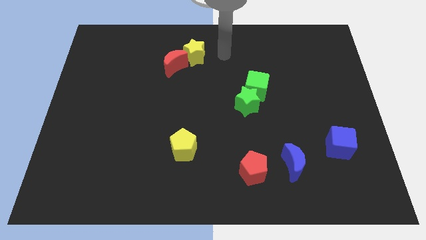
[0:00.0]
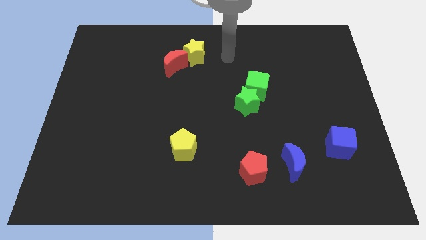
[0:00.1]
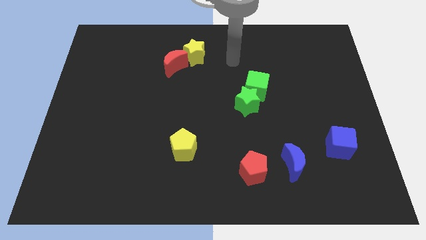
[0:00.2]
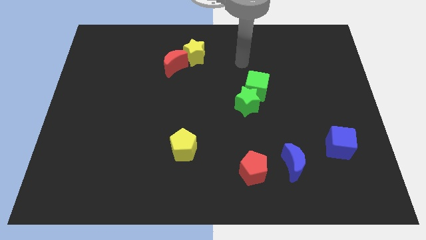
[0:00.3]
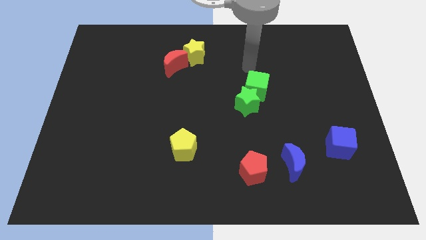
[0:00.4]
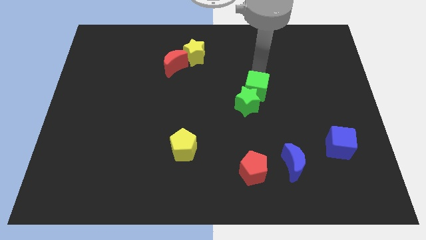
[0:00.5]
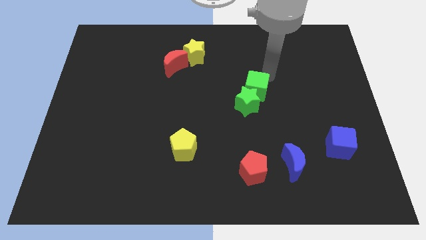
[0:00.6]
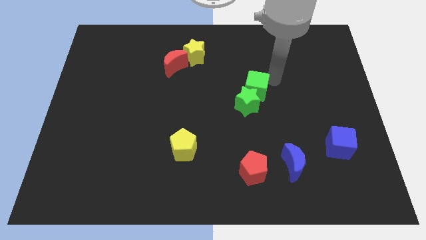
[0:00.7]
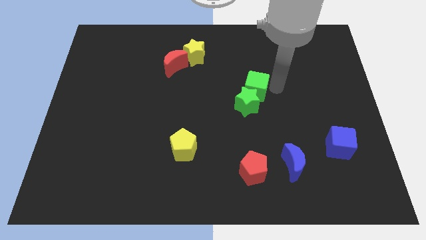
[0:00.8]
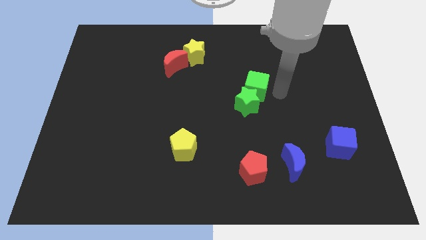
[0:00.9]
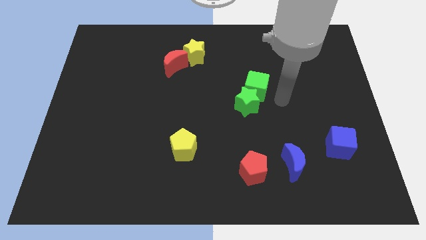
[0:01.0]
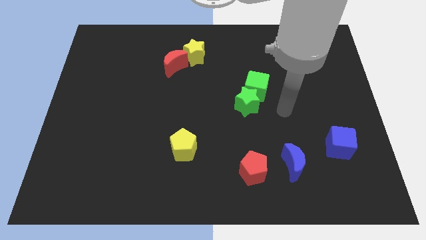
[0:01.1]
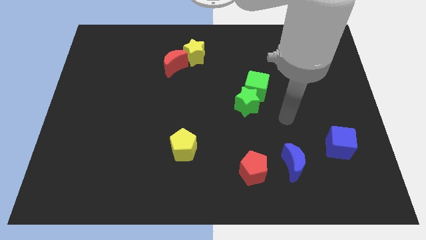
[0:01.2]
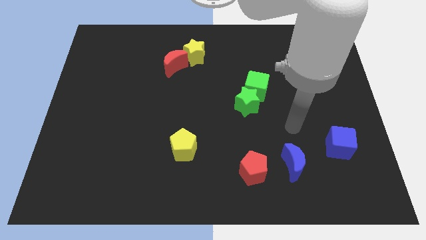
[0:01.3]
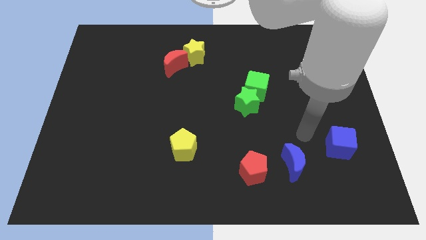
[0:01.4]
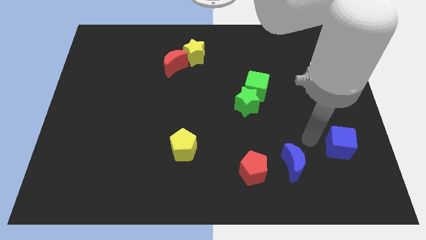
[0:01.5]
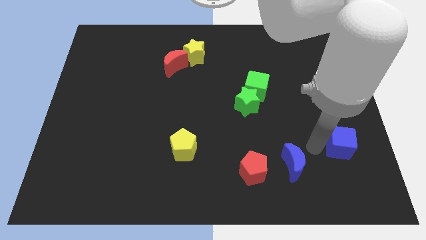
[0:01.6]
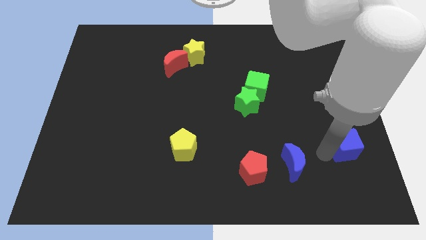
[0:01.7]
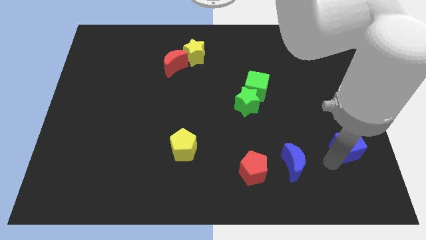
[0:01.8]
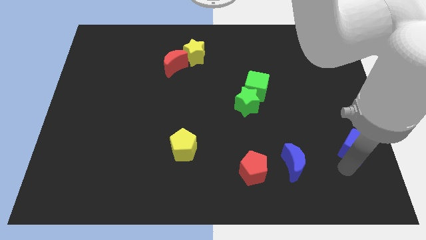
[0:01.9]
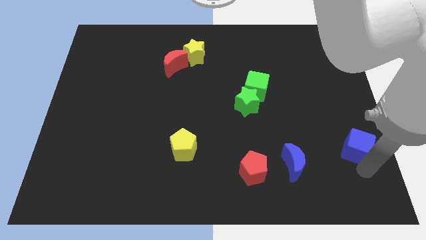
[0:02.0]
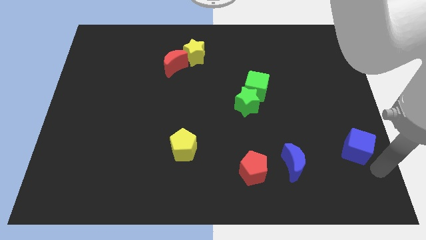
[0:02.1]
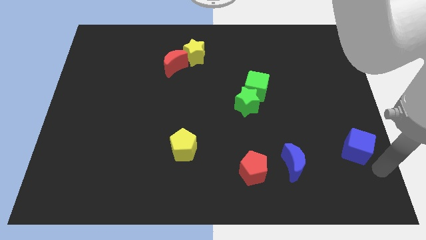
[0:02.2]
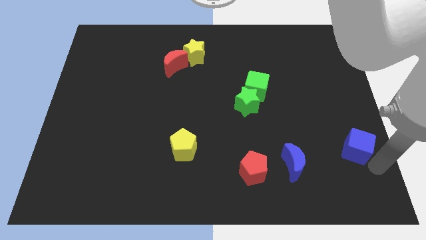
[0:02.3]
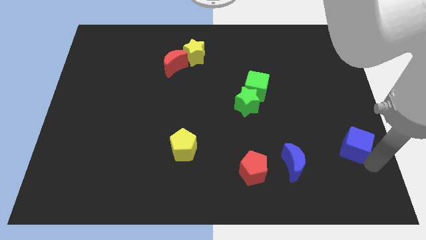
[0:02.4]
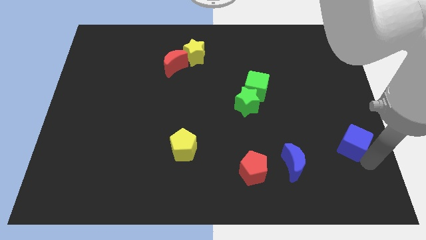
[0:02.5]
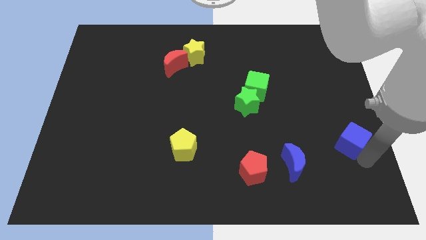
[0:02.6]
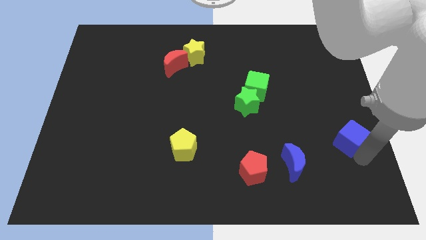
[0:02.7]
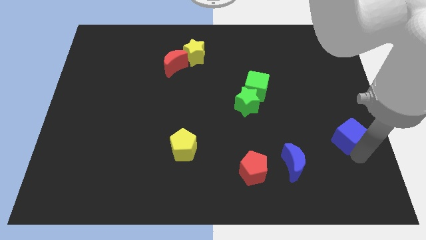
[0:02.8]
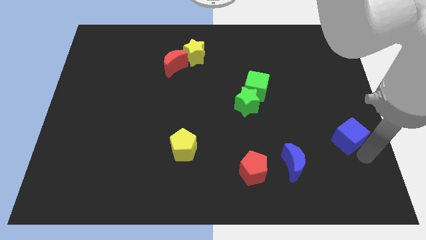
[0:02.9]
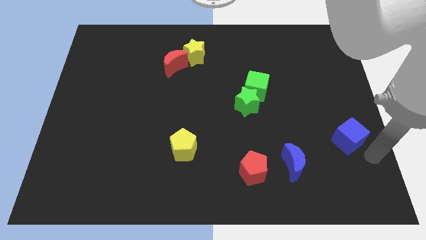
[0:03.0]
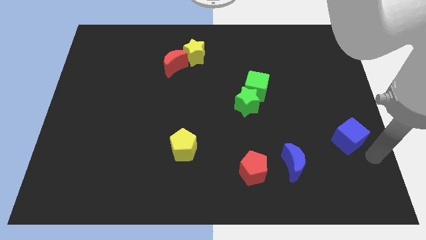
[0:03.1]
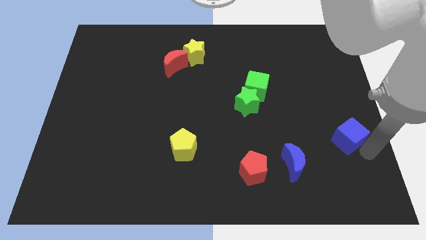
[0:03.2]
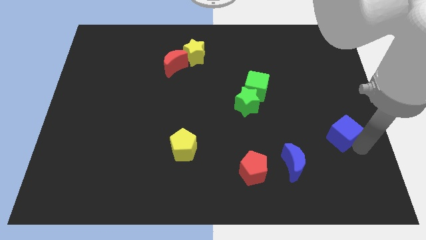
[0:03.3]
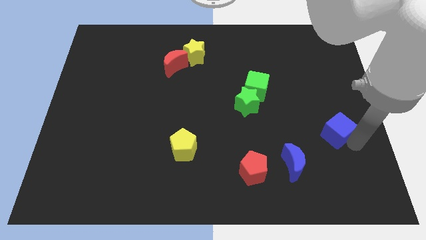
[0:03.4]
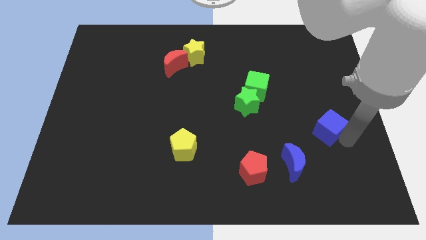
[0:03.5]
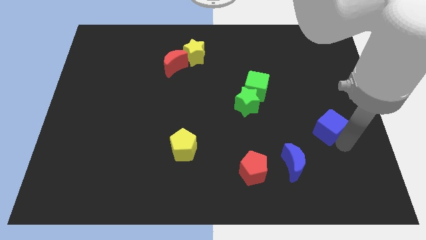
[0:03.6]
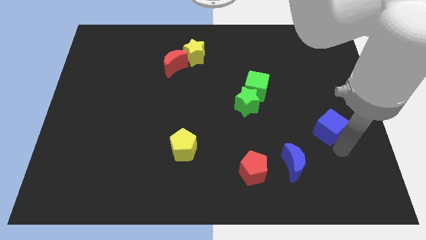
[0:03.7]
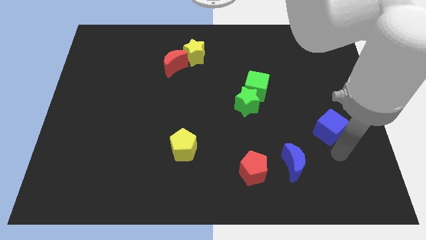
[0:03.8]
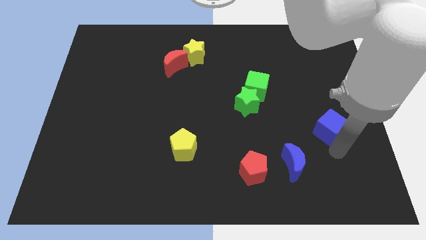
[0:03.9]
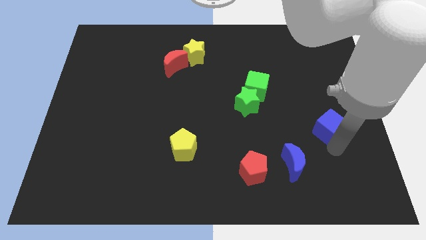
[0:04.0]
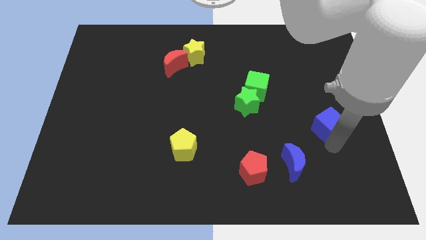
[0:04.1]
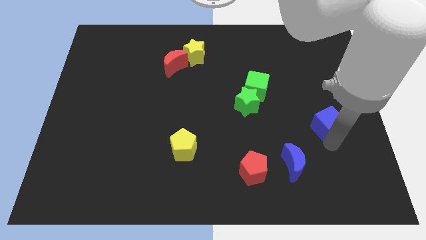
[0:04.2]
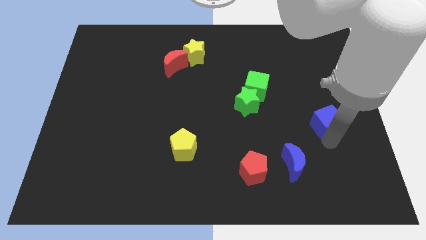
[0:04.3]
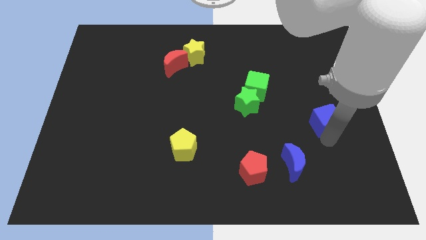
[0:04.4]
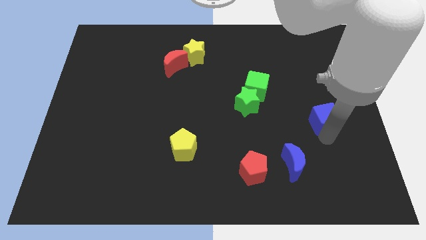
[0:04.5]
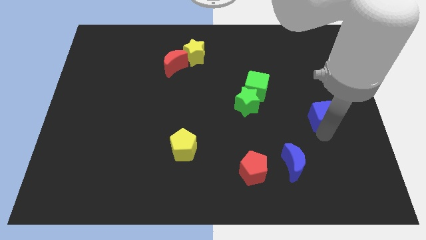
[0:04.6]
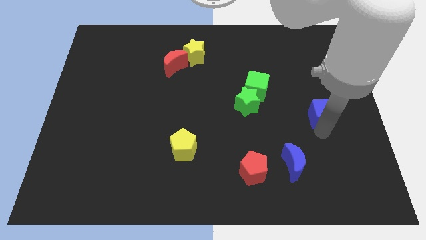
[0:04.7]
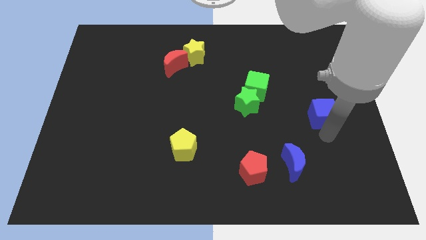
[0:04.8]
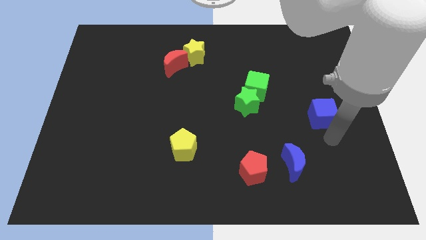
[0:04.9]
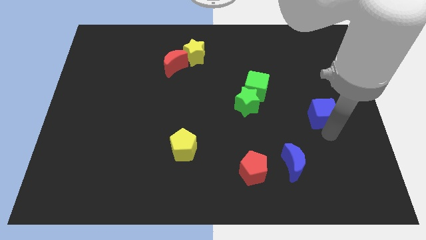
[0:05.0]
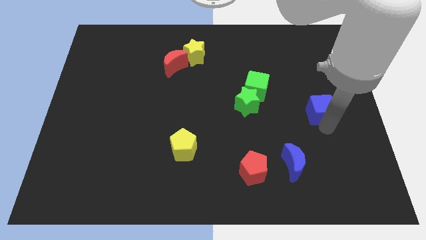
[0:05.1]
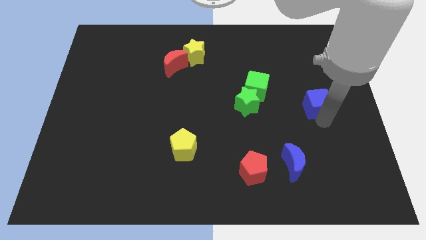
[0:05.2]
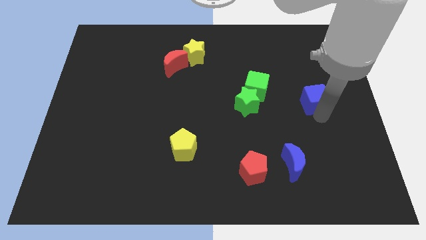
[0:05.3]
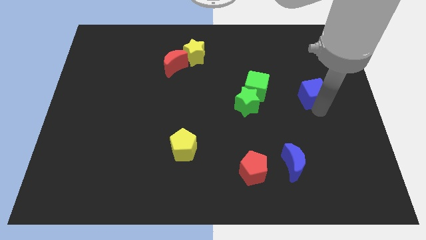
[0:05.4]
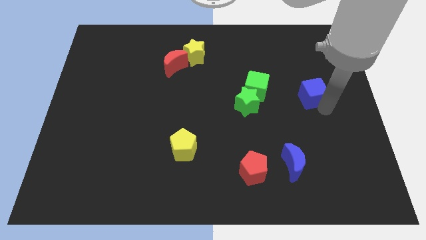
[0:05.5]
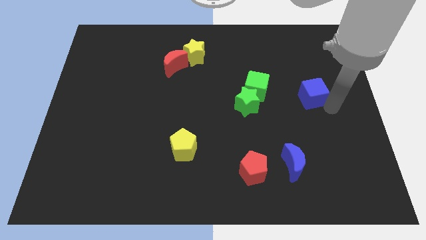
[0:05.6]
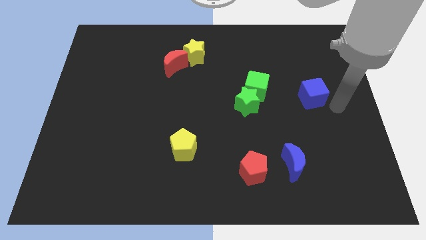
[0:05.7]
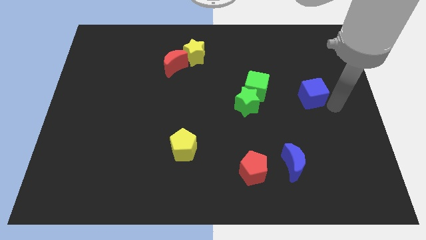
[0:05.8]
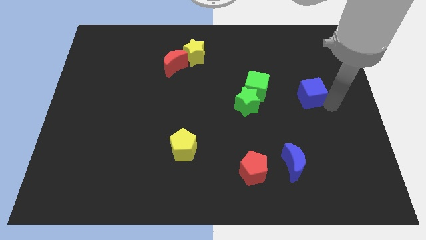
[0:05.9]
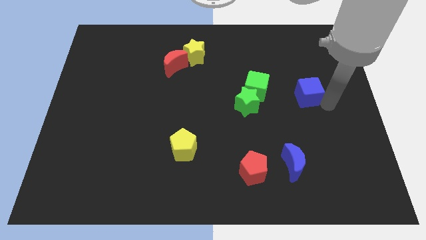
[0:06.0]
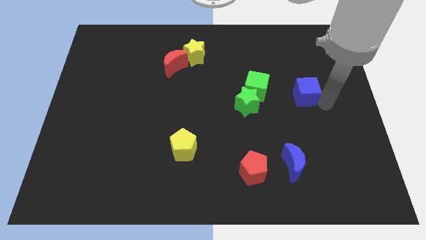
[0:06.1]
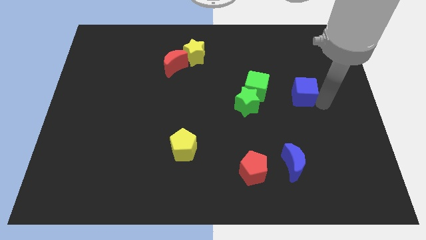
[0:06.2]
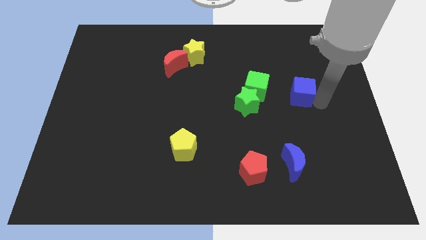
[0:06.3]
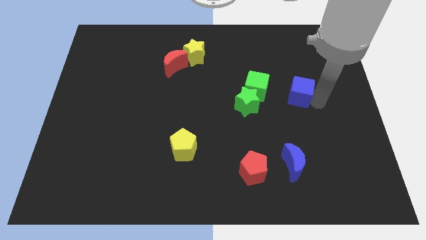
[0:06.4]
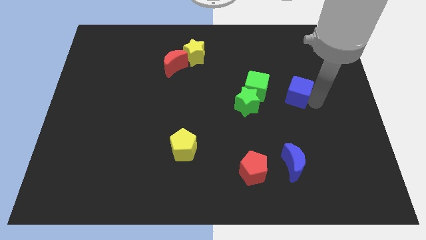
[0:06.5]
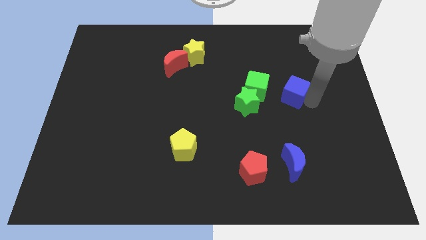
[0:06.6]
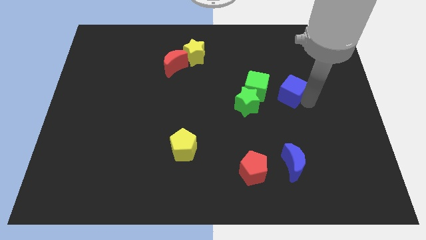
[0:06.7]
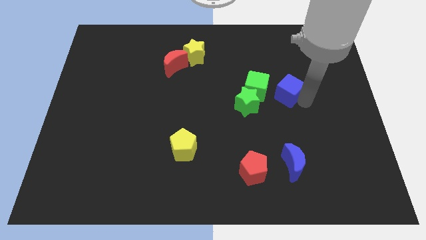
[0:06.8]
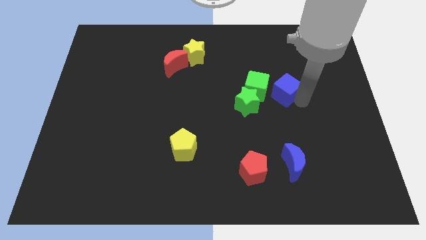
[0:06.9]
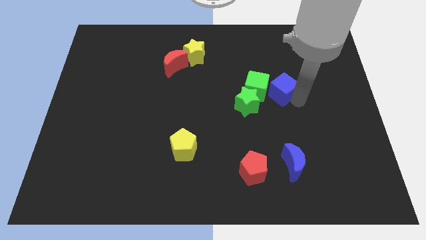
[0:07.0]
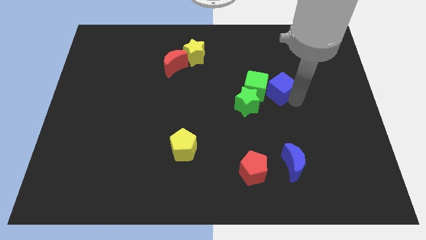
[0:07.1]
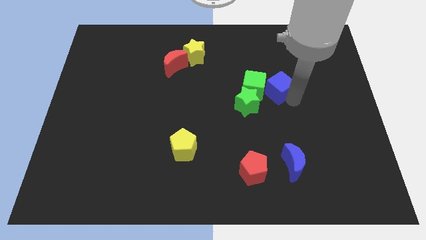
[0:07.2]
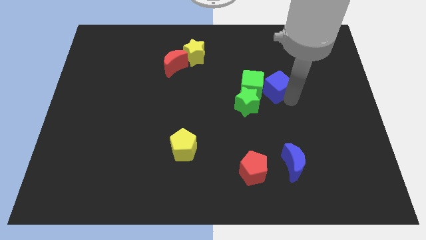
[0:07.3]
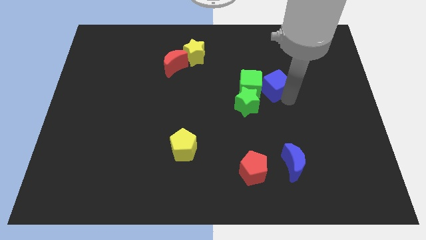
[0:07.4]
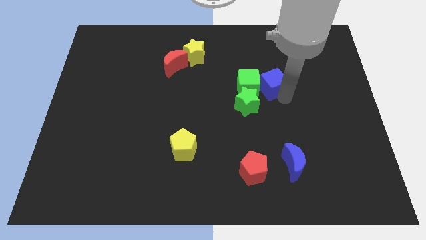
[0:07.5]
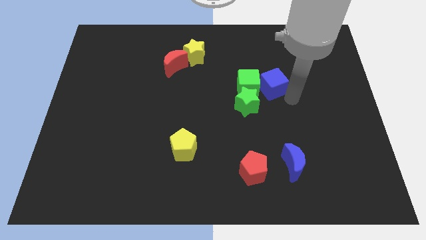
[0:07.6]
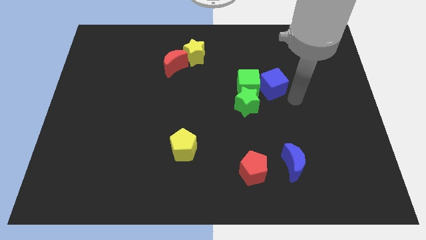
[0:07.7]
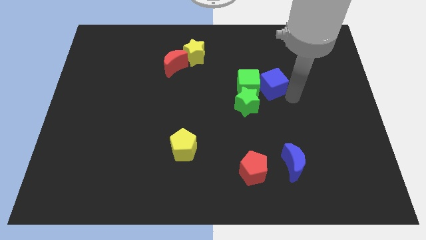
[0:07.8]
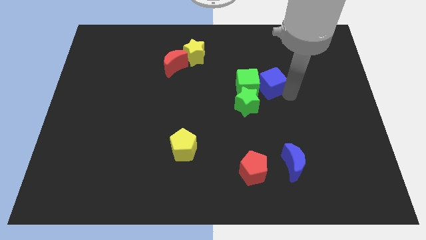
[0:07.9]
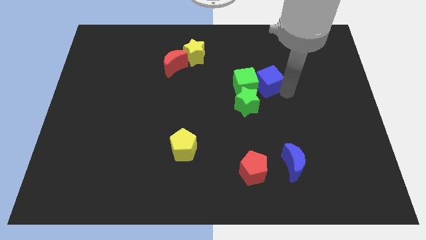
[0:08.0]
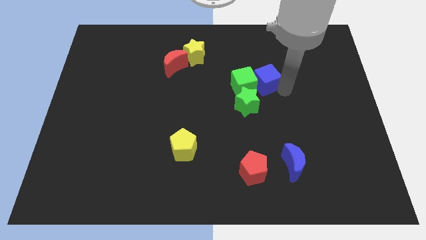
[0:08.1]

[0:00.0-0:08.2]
slide the blue cube above the green star
